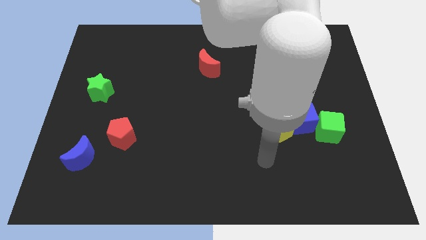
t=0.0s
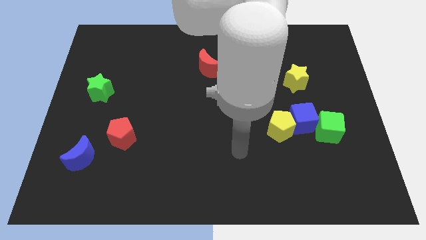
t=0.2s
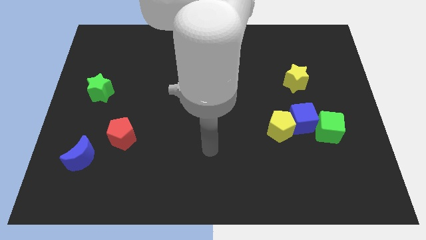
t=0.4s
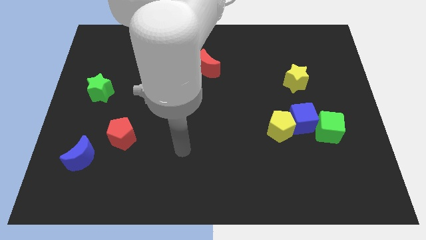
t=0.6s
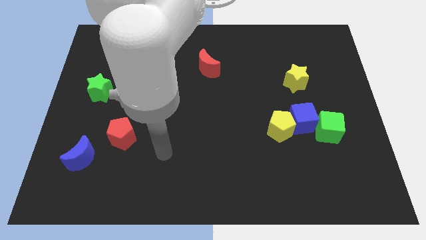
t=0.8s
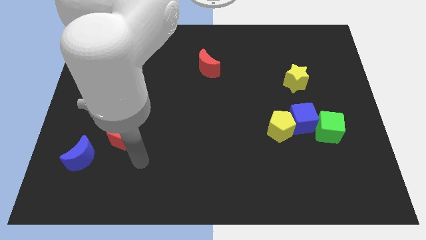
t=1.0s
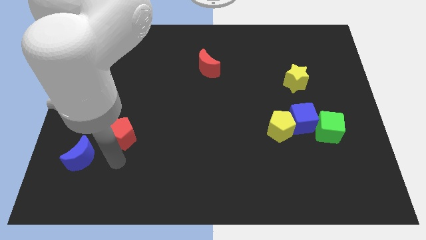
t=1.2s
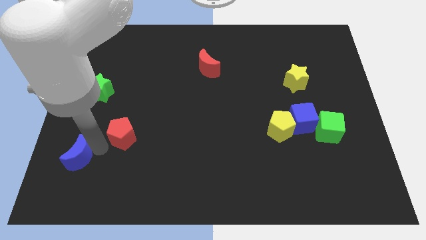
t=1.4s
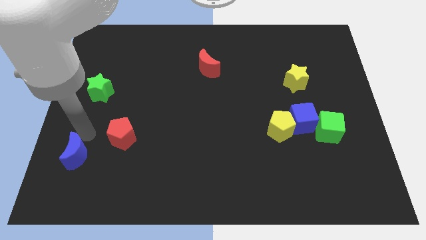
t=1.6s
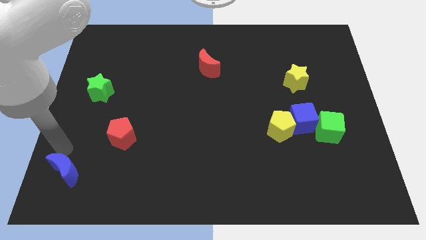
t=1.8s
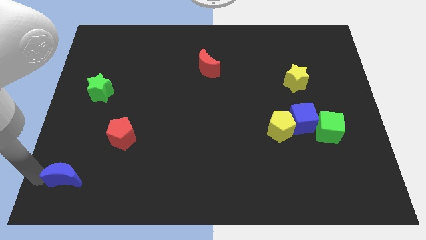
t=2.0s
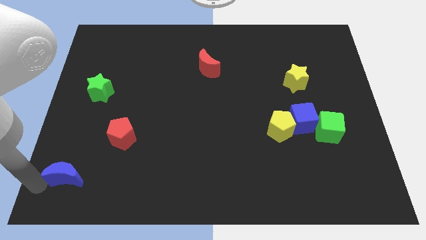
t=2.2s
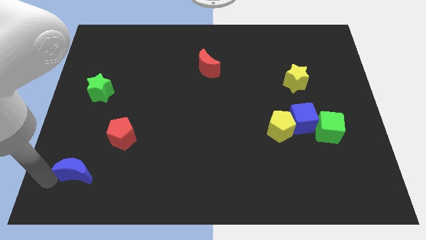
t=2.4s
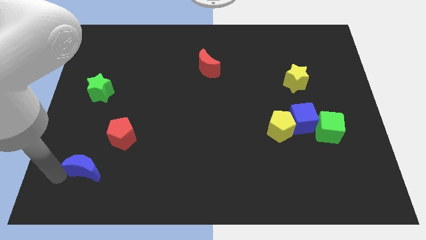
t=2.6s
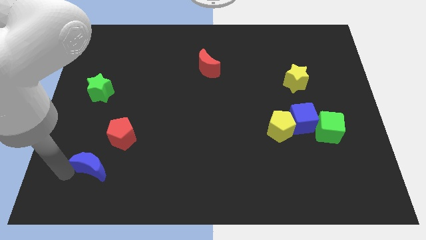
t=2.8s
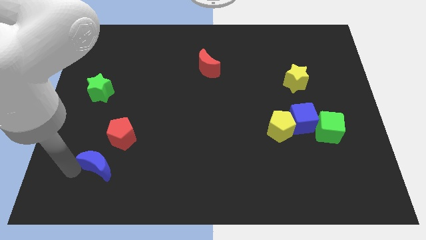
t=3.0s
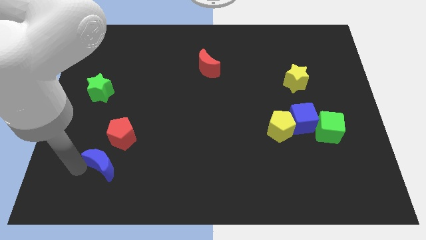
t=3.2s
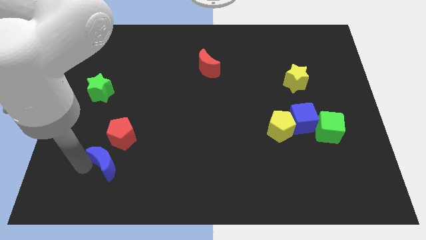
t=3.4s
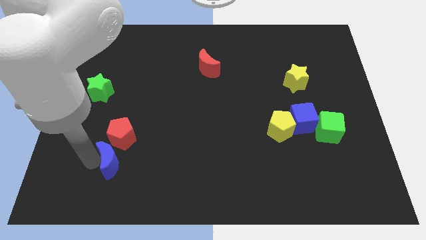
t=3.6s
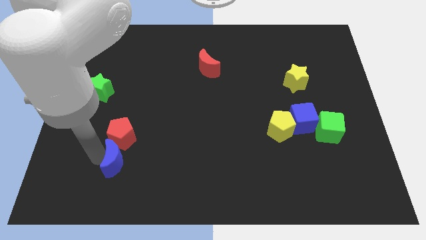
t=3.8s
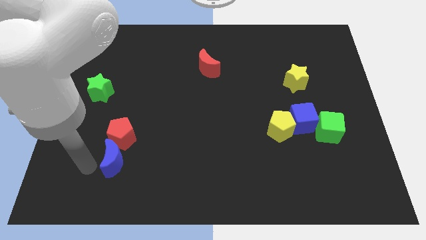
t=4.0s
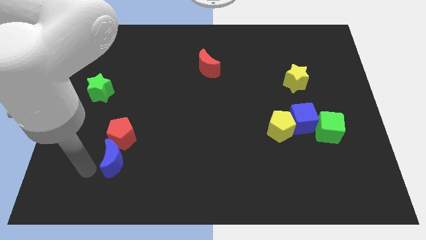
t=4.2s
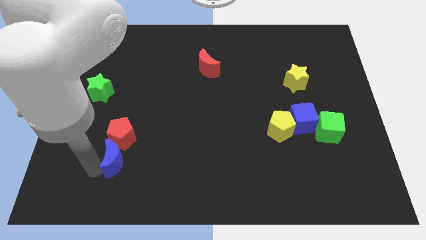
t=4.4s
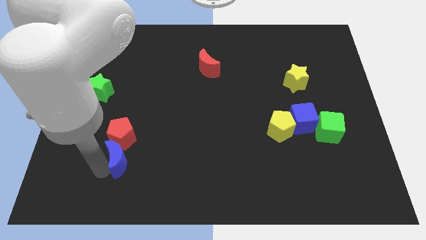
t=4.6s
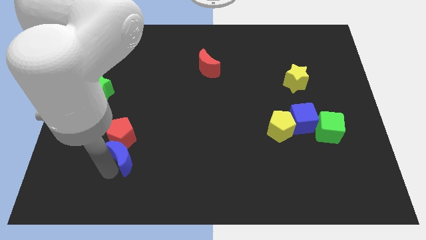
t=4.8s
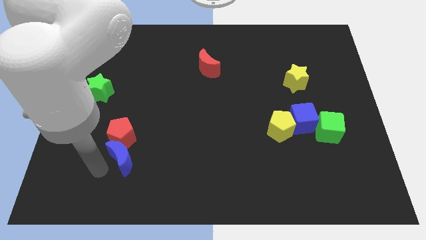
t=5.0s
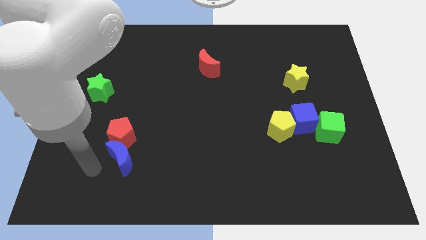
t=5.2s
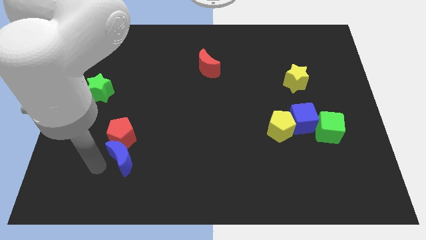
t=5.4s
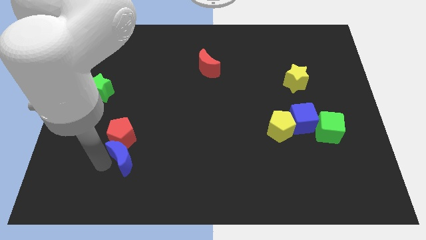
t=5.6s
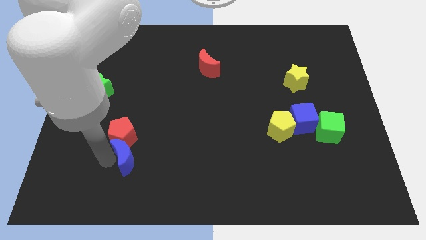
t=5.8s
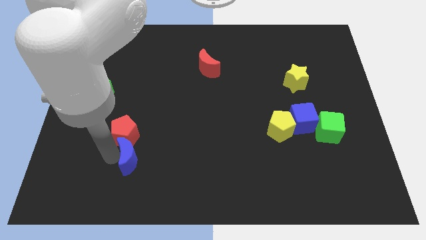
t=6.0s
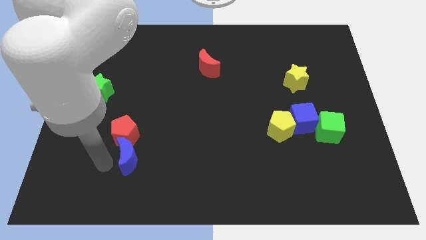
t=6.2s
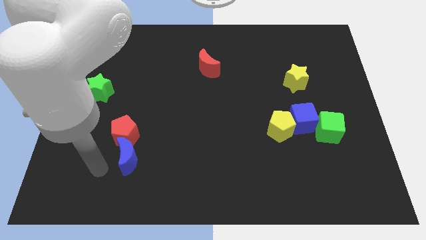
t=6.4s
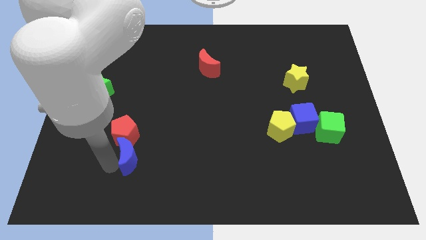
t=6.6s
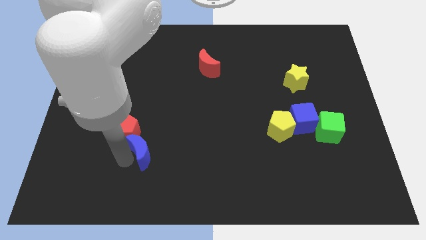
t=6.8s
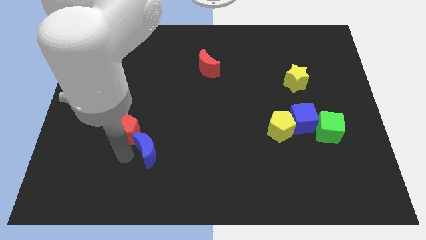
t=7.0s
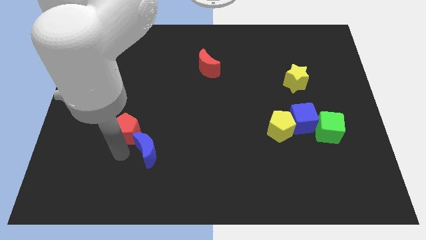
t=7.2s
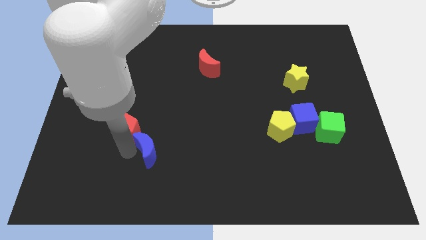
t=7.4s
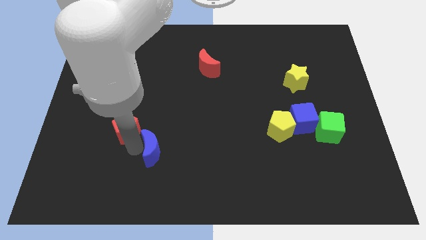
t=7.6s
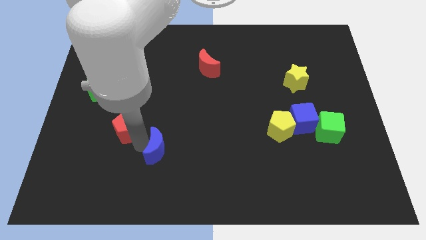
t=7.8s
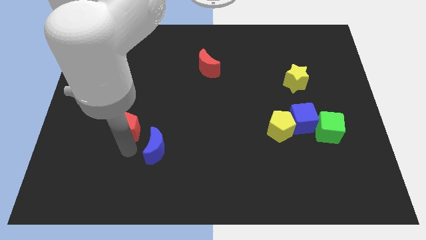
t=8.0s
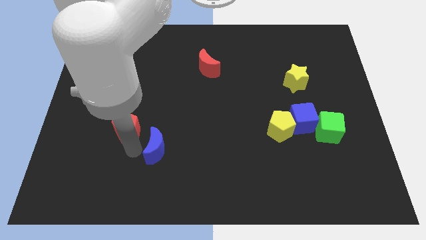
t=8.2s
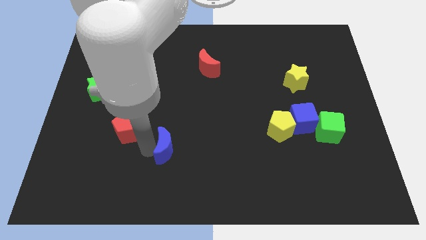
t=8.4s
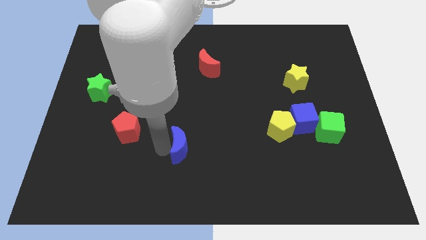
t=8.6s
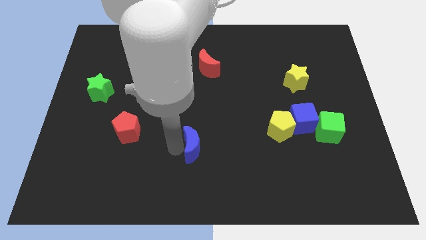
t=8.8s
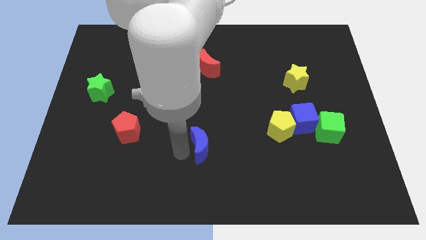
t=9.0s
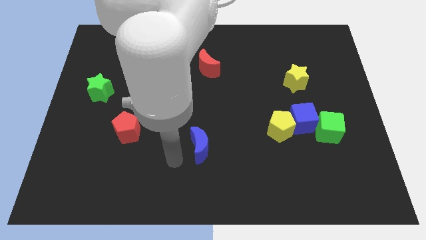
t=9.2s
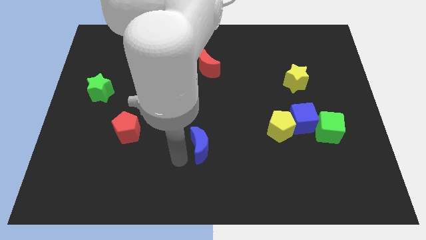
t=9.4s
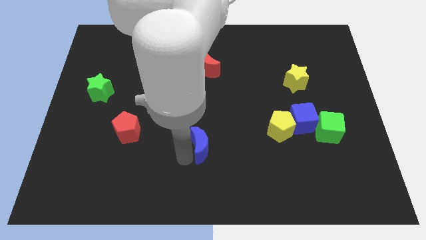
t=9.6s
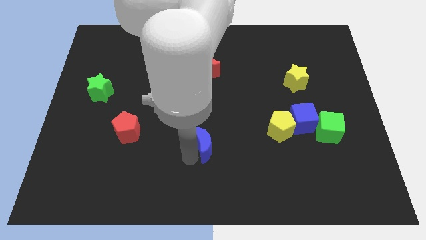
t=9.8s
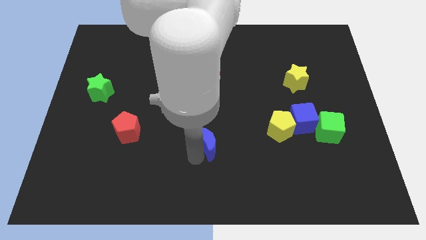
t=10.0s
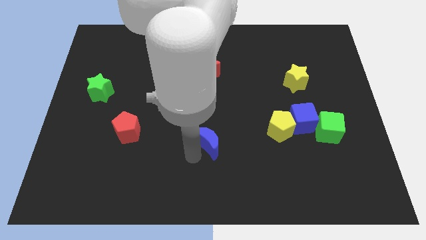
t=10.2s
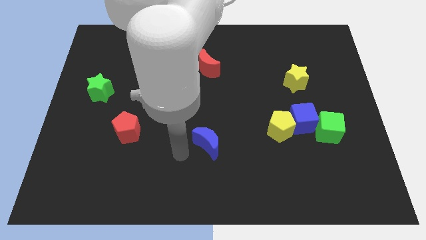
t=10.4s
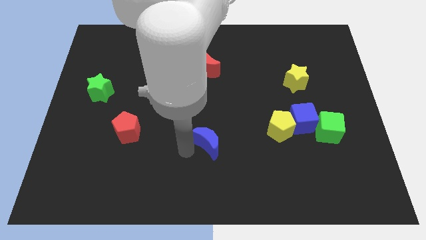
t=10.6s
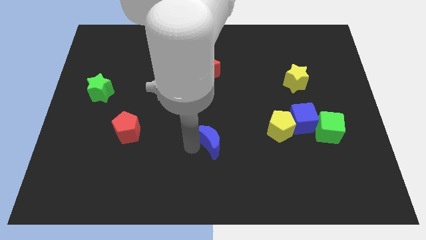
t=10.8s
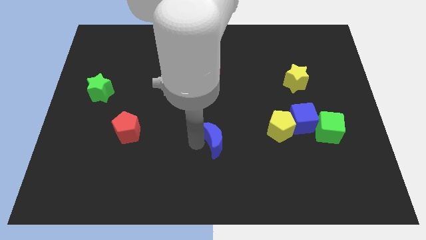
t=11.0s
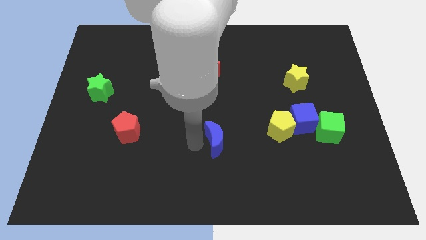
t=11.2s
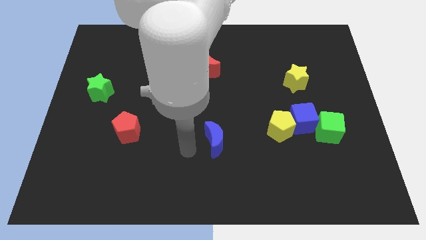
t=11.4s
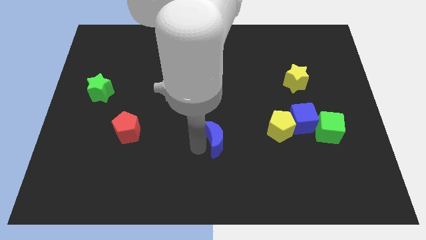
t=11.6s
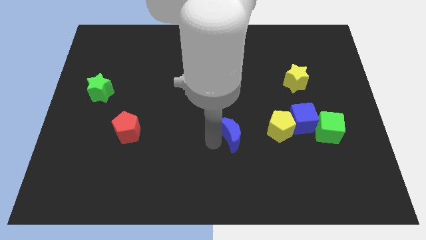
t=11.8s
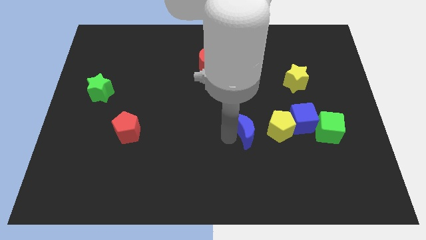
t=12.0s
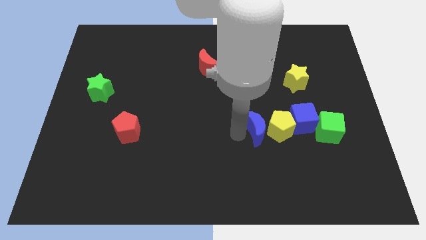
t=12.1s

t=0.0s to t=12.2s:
move the blue moon to the left of the green cube

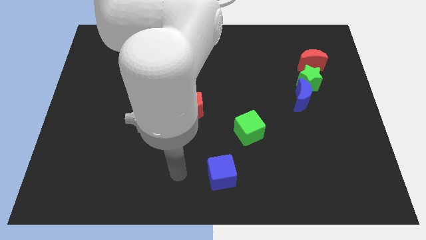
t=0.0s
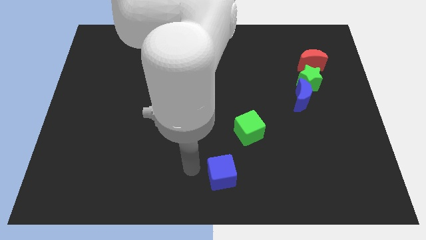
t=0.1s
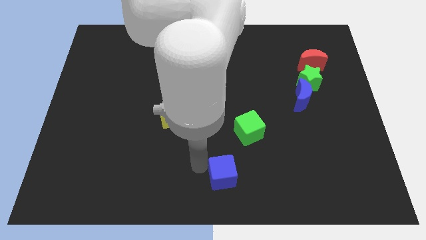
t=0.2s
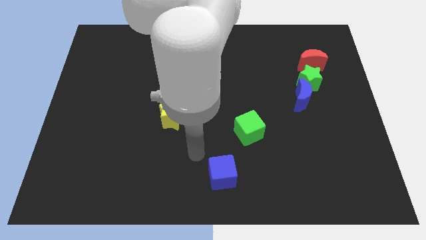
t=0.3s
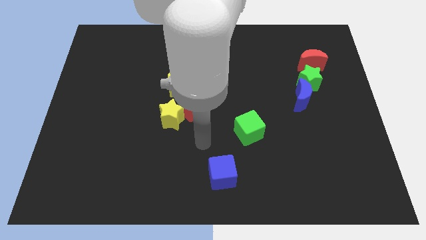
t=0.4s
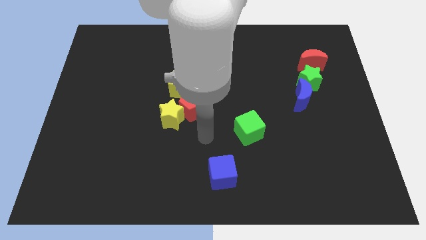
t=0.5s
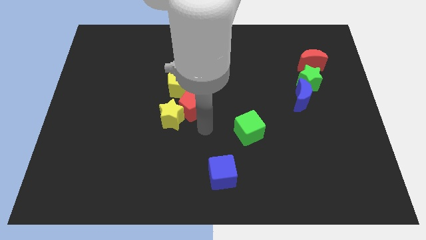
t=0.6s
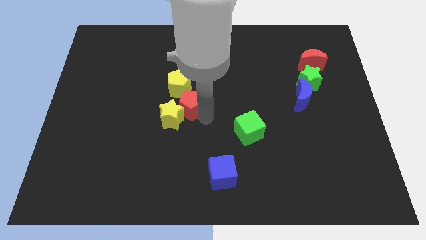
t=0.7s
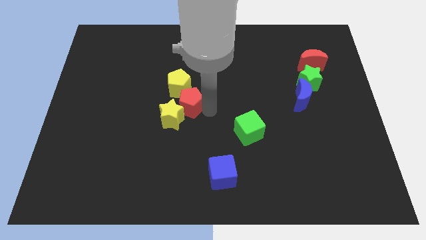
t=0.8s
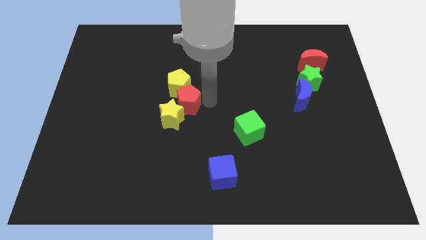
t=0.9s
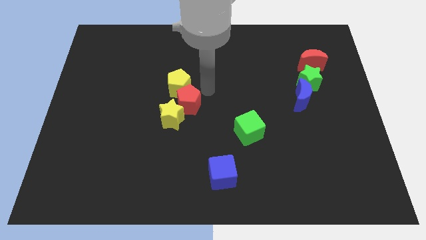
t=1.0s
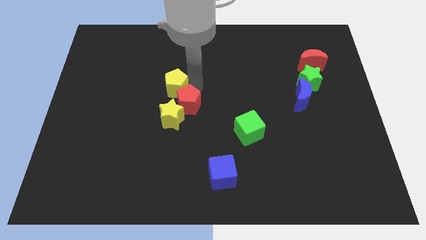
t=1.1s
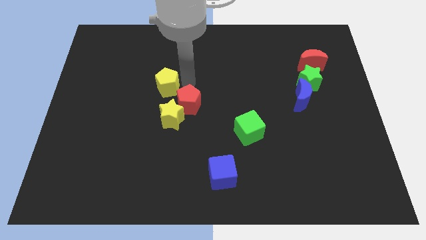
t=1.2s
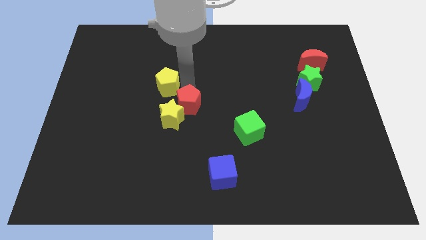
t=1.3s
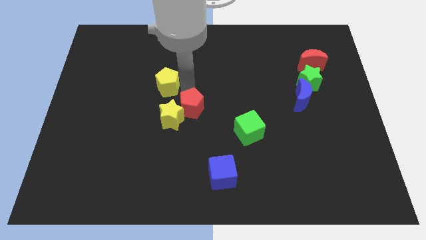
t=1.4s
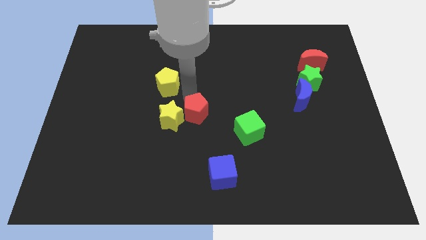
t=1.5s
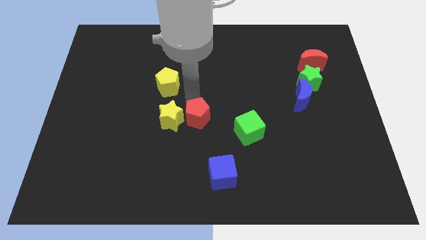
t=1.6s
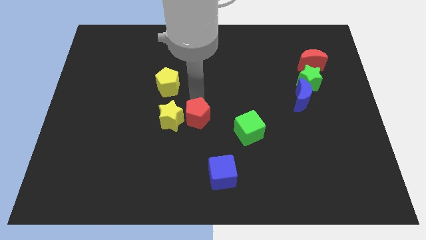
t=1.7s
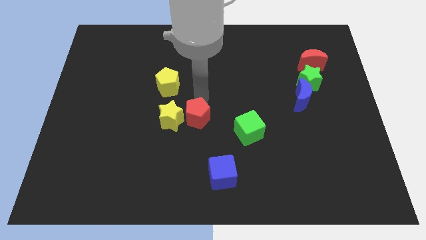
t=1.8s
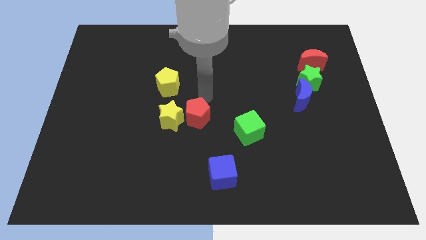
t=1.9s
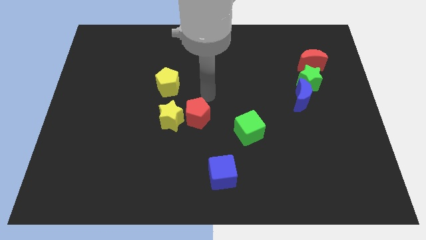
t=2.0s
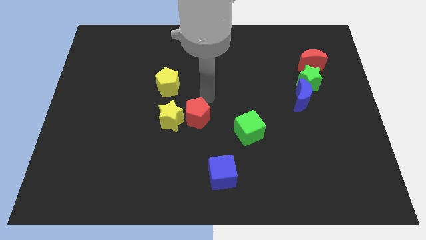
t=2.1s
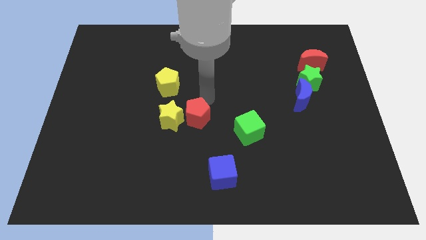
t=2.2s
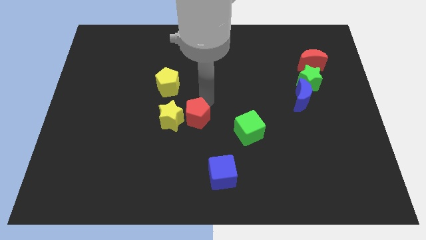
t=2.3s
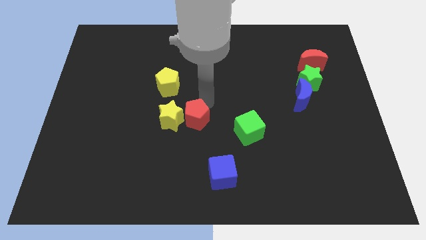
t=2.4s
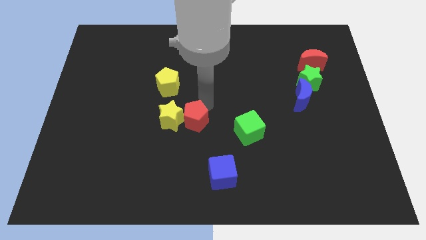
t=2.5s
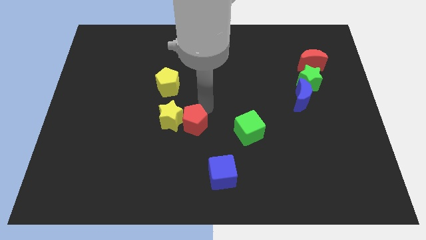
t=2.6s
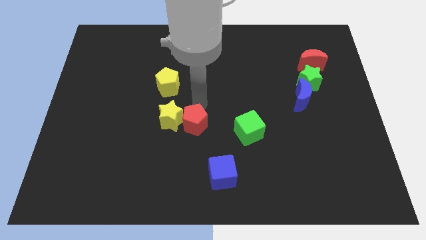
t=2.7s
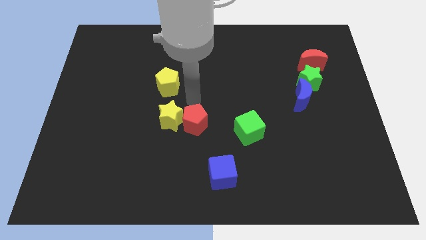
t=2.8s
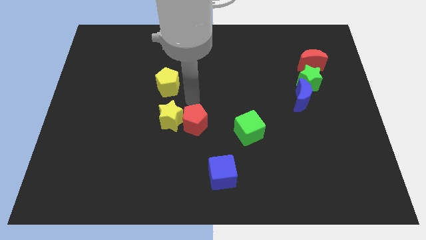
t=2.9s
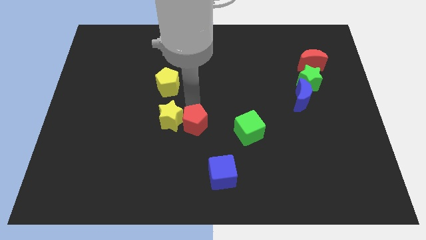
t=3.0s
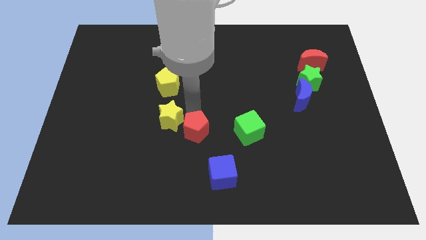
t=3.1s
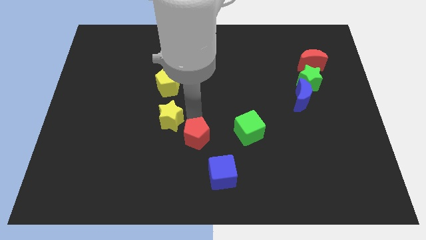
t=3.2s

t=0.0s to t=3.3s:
move the red pentagon to the top left of the blue cube
